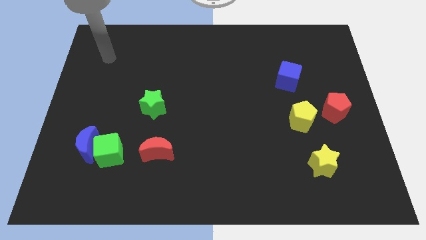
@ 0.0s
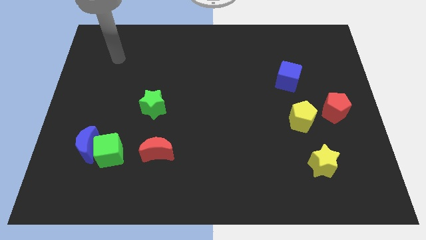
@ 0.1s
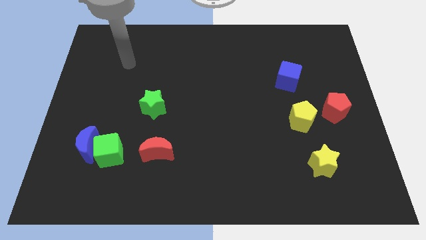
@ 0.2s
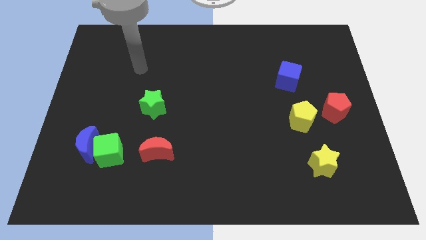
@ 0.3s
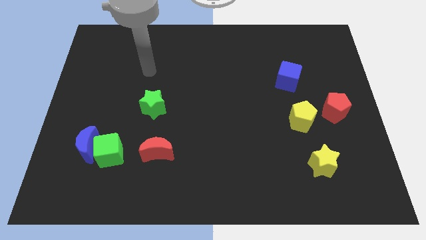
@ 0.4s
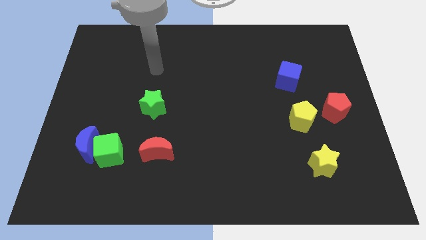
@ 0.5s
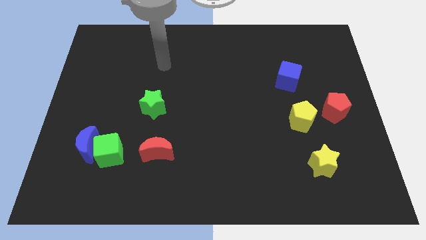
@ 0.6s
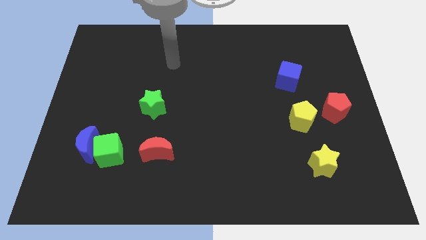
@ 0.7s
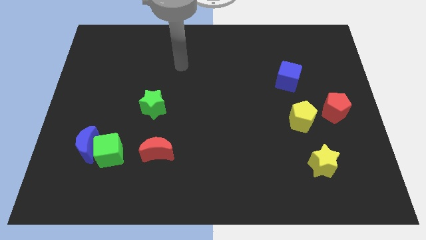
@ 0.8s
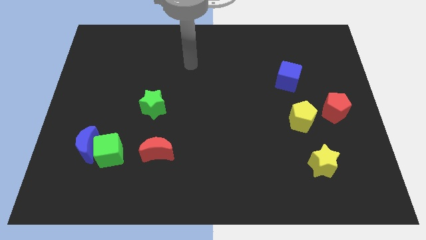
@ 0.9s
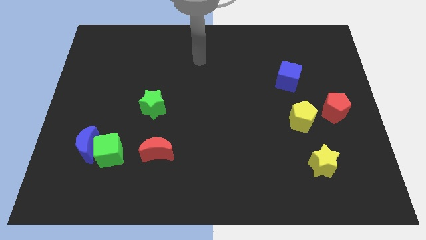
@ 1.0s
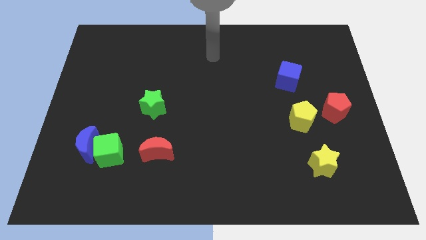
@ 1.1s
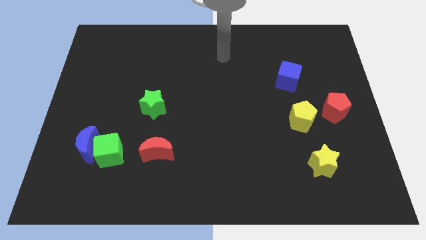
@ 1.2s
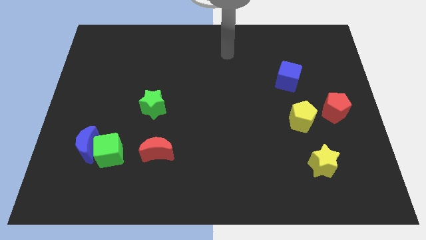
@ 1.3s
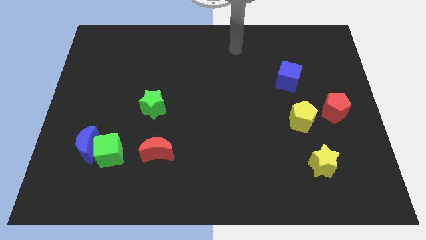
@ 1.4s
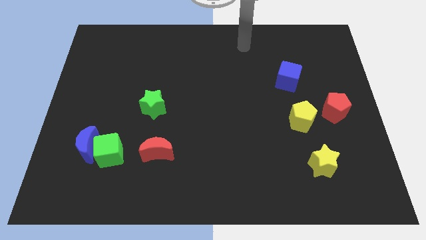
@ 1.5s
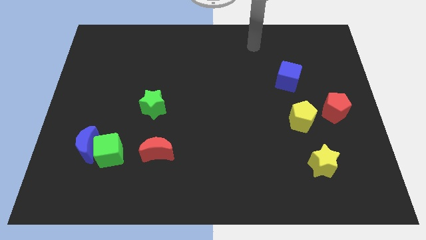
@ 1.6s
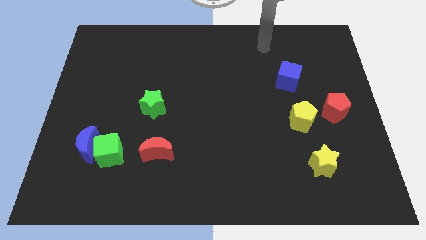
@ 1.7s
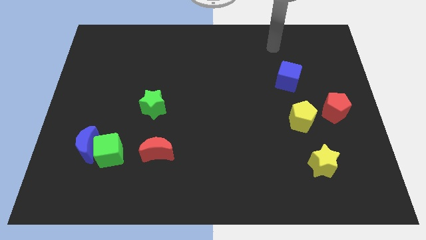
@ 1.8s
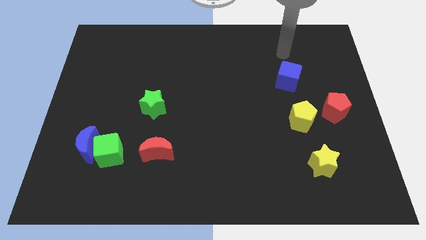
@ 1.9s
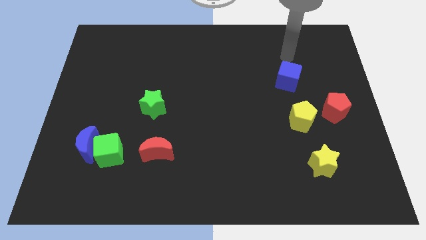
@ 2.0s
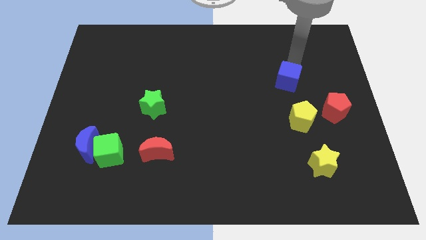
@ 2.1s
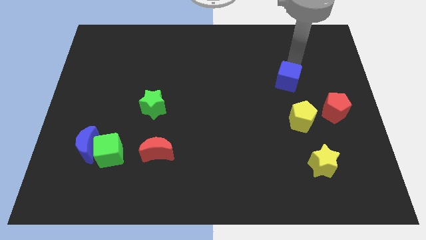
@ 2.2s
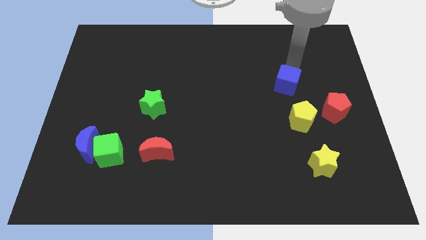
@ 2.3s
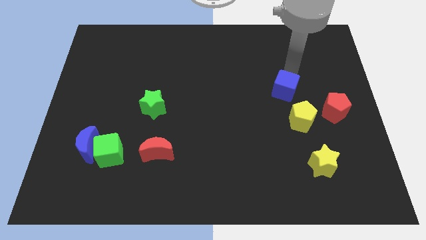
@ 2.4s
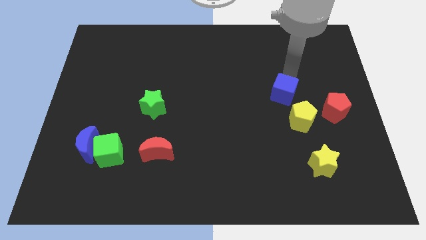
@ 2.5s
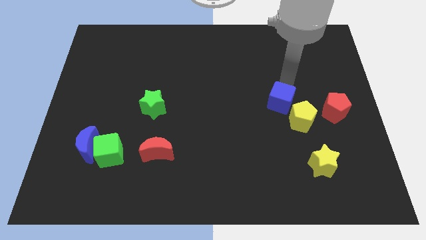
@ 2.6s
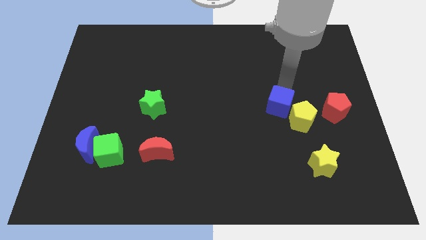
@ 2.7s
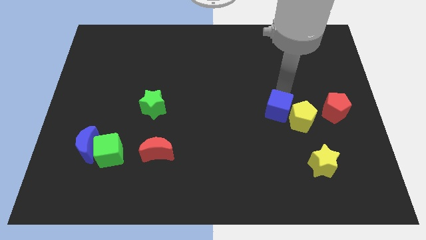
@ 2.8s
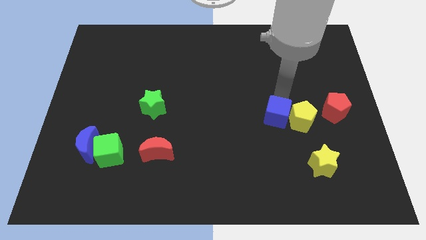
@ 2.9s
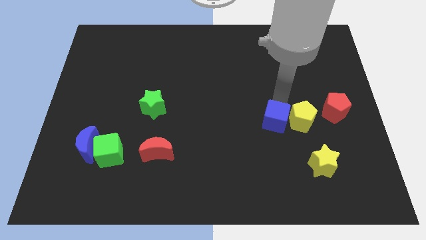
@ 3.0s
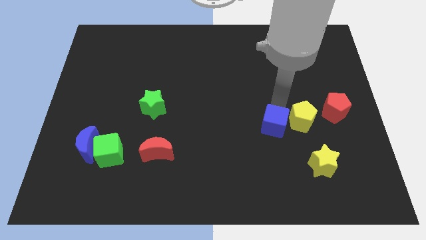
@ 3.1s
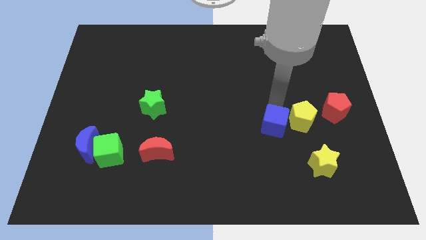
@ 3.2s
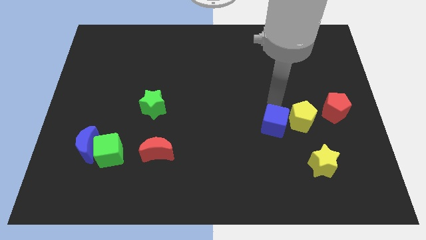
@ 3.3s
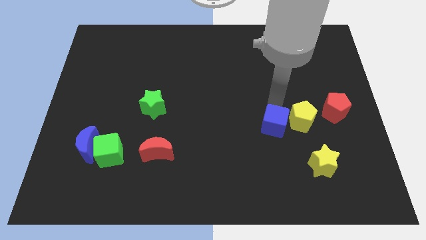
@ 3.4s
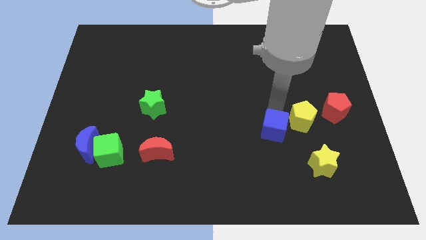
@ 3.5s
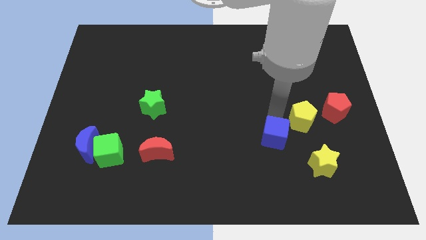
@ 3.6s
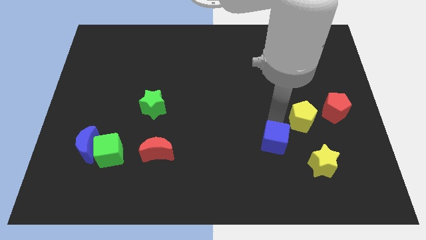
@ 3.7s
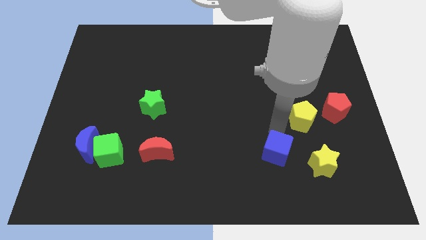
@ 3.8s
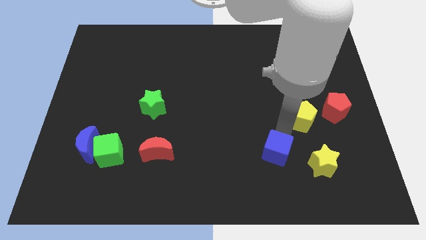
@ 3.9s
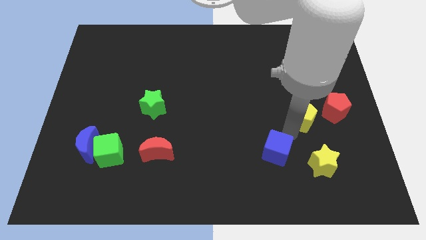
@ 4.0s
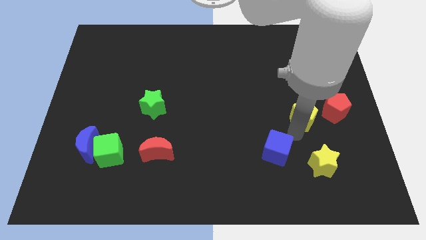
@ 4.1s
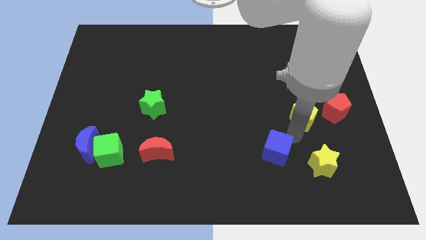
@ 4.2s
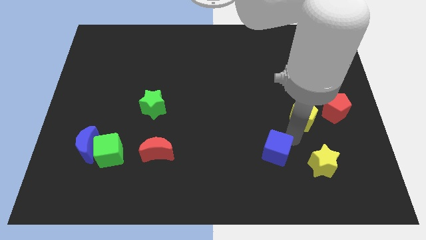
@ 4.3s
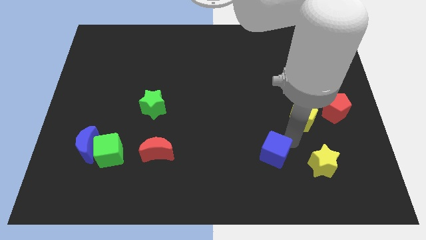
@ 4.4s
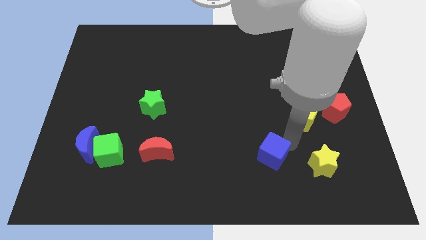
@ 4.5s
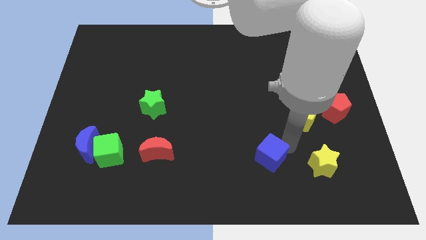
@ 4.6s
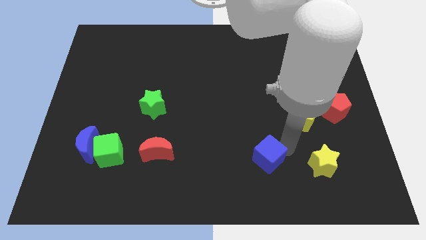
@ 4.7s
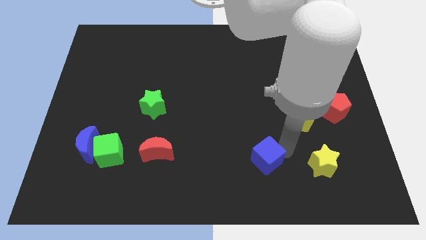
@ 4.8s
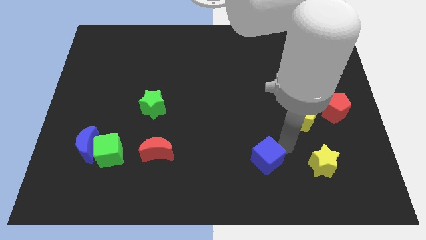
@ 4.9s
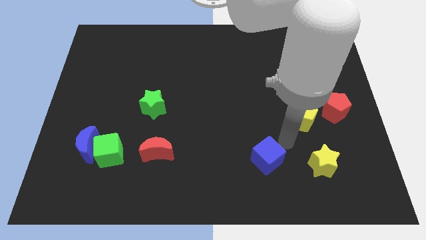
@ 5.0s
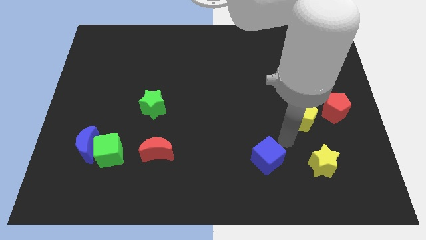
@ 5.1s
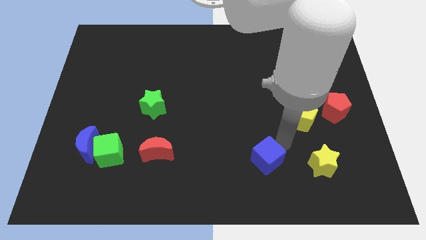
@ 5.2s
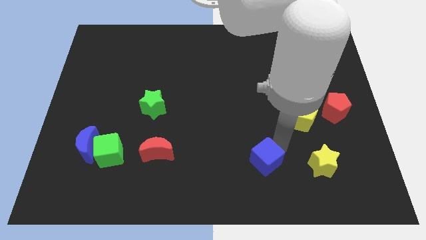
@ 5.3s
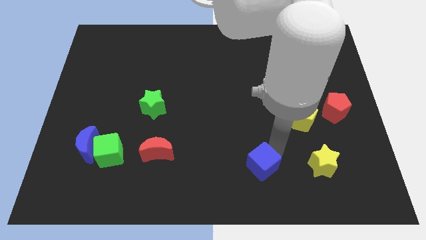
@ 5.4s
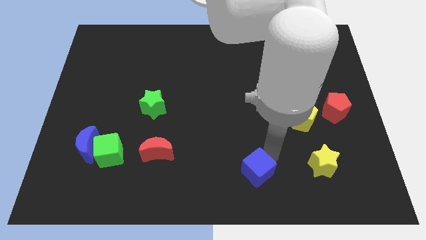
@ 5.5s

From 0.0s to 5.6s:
move the blue cube to the bottom

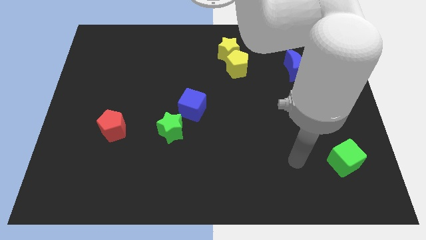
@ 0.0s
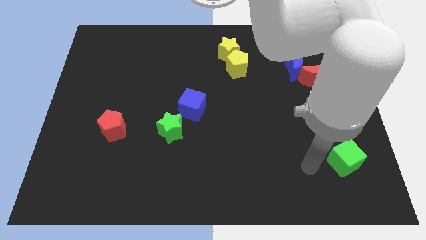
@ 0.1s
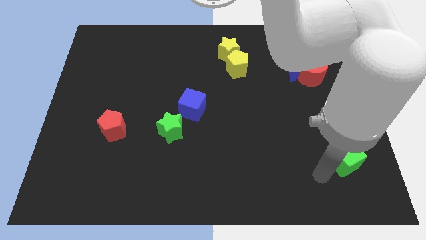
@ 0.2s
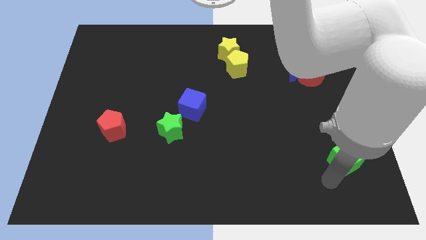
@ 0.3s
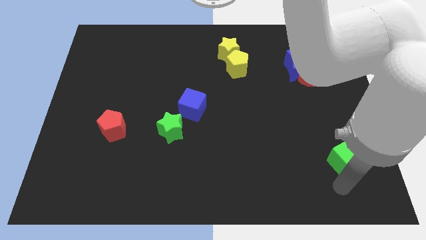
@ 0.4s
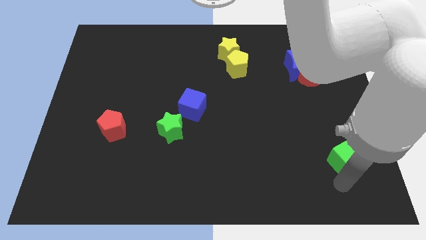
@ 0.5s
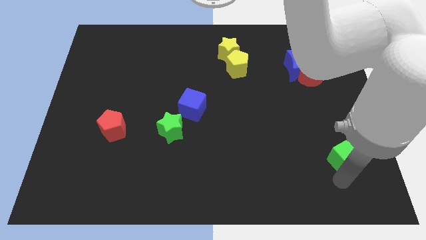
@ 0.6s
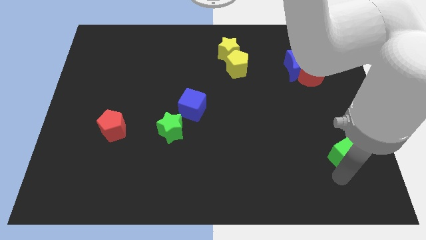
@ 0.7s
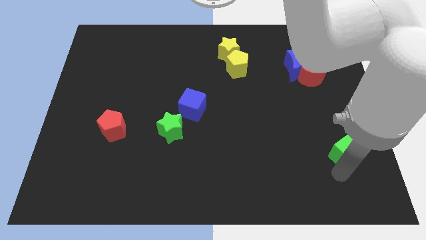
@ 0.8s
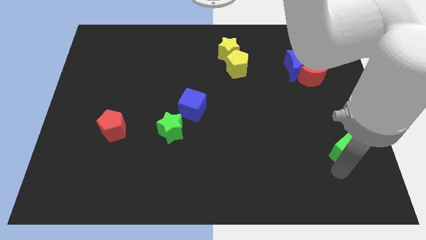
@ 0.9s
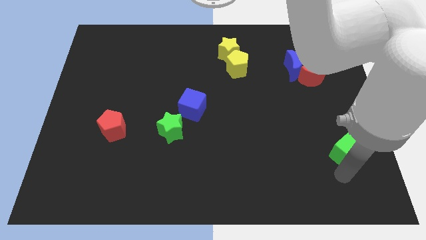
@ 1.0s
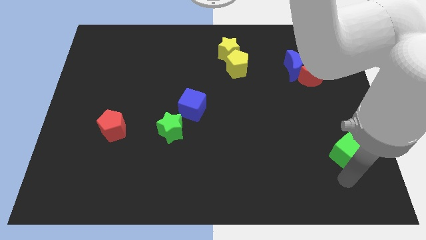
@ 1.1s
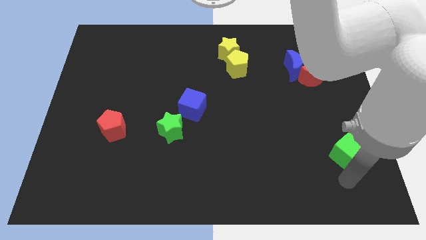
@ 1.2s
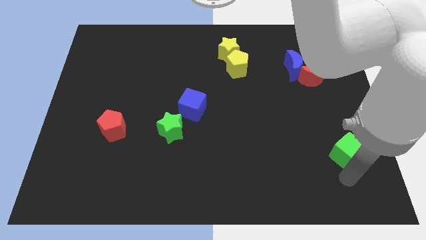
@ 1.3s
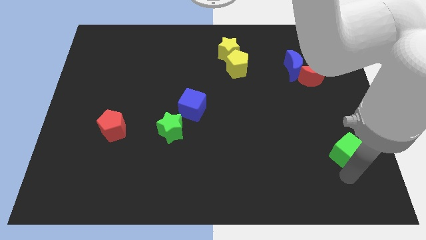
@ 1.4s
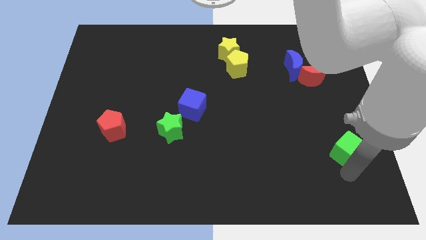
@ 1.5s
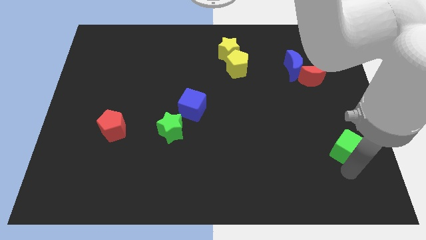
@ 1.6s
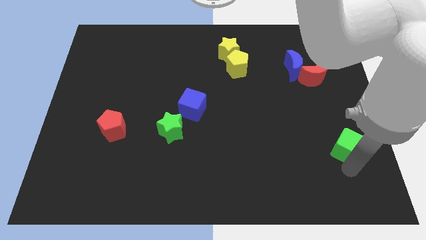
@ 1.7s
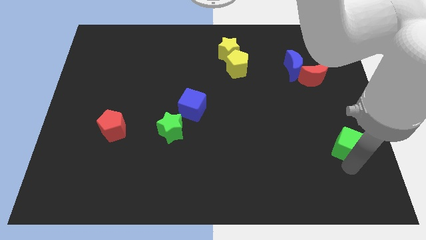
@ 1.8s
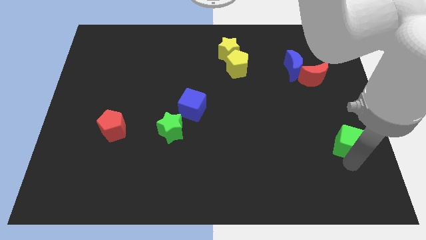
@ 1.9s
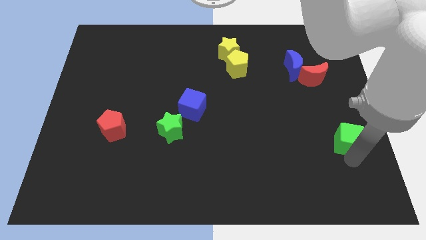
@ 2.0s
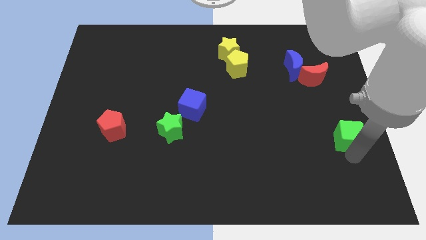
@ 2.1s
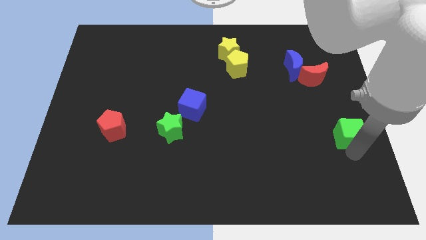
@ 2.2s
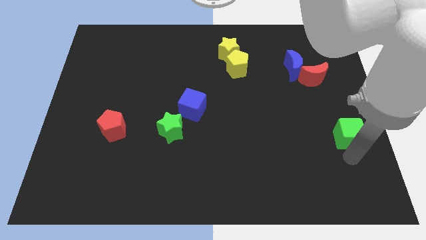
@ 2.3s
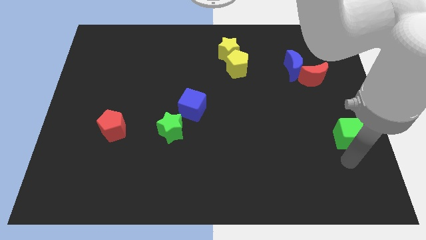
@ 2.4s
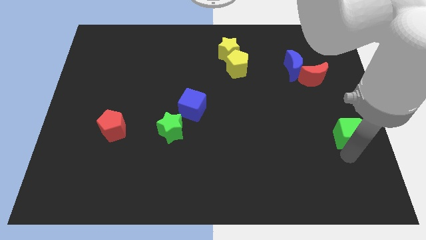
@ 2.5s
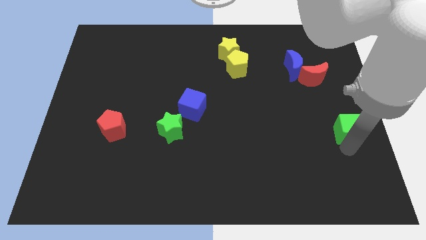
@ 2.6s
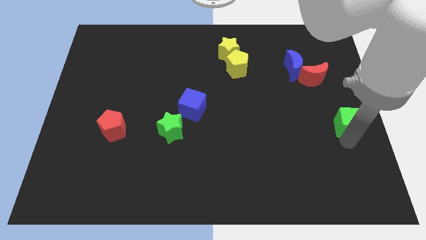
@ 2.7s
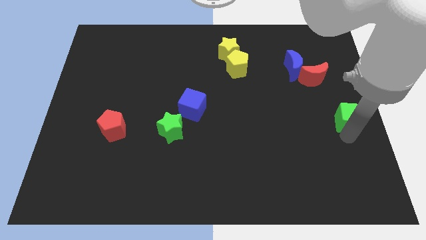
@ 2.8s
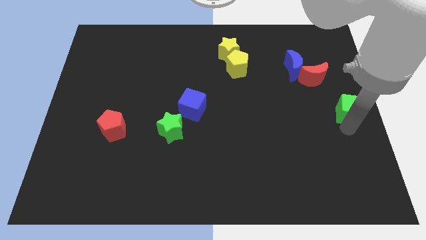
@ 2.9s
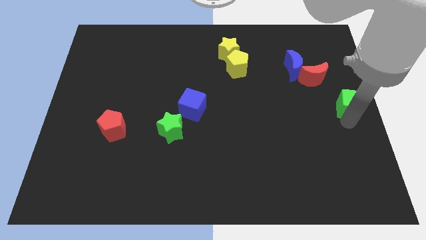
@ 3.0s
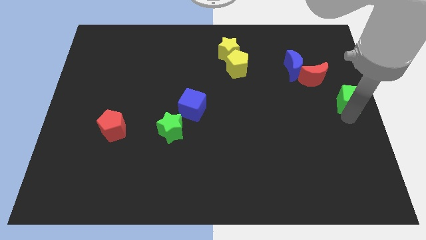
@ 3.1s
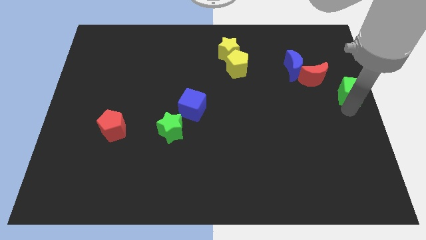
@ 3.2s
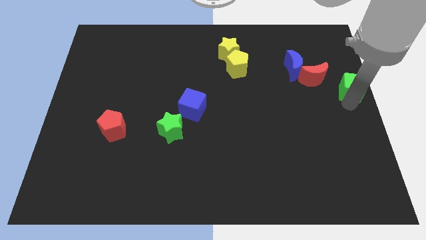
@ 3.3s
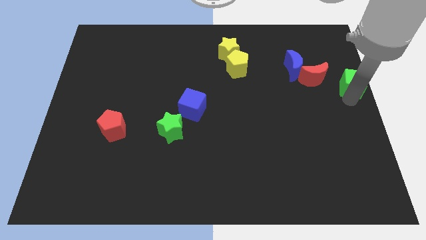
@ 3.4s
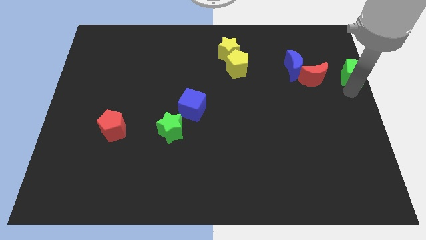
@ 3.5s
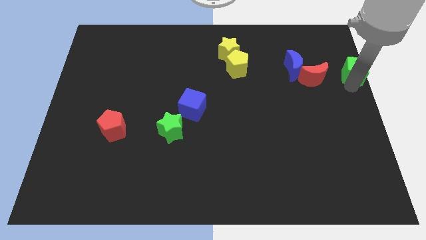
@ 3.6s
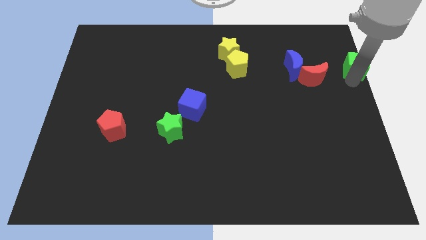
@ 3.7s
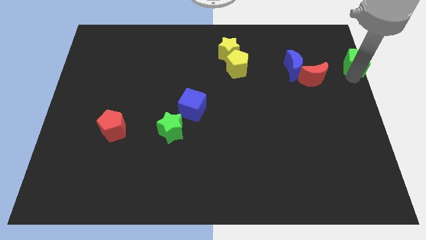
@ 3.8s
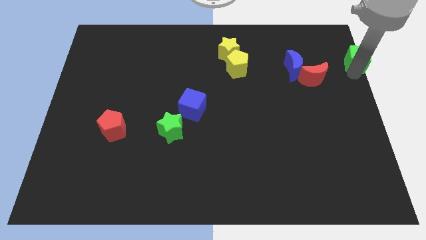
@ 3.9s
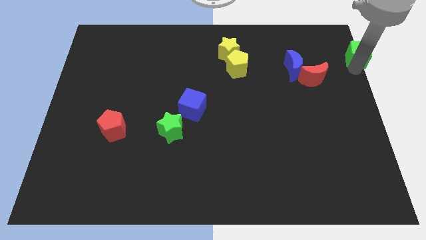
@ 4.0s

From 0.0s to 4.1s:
move the green cube to the top right of the board
